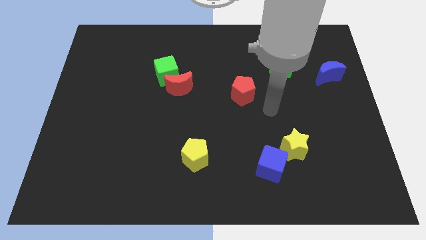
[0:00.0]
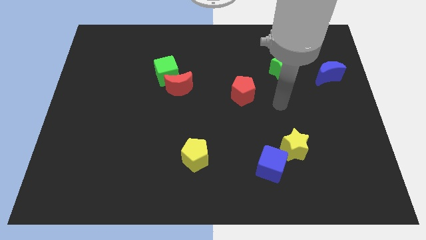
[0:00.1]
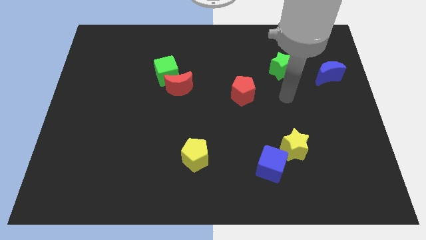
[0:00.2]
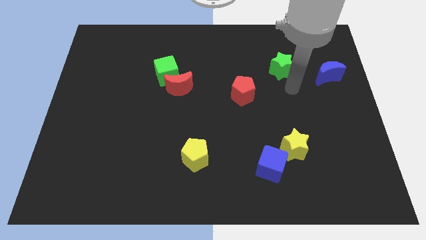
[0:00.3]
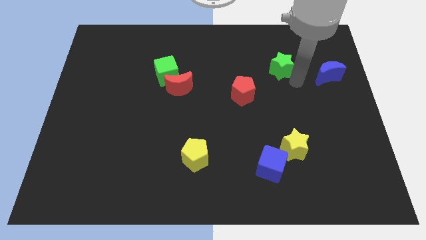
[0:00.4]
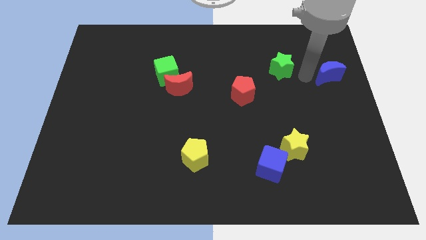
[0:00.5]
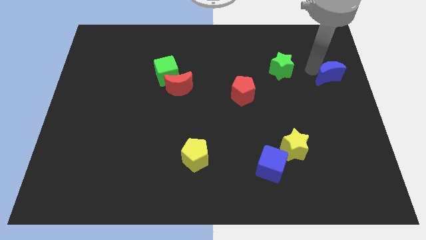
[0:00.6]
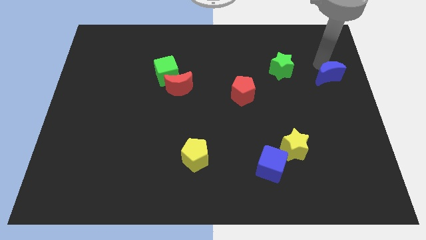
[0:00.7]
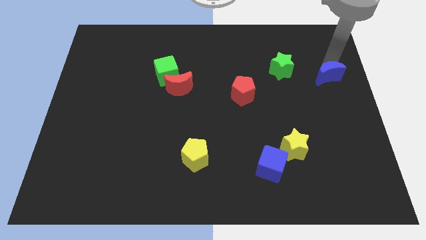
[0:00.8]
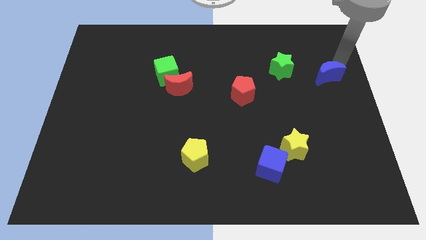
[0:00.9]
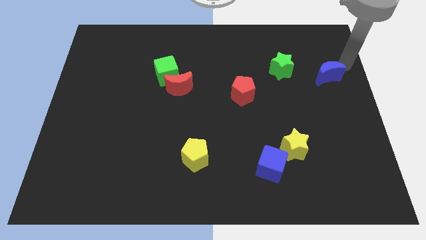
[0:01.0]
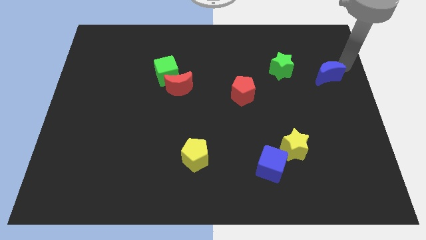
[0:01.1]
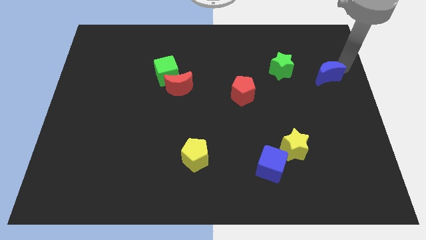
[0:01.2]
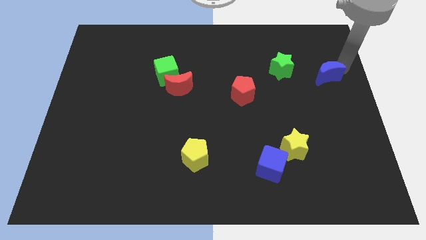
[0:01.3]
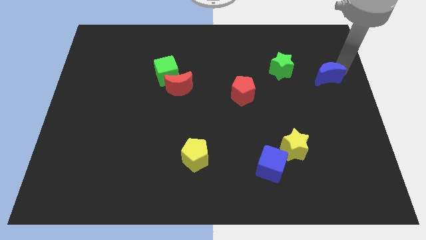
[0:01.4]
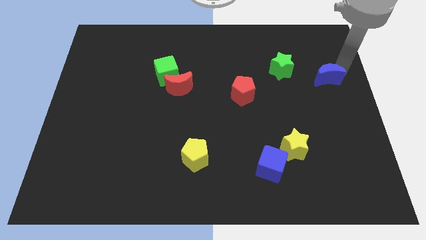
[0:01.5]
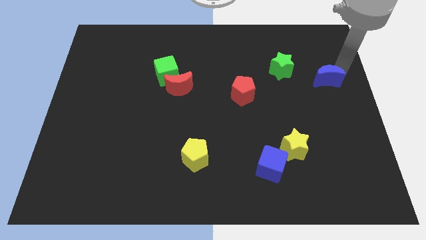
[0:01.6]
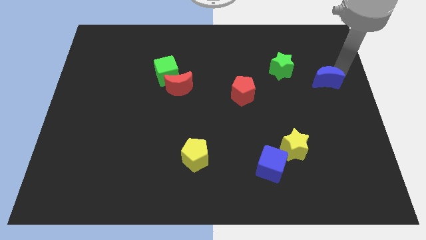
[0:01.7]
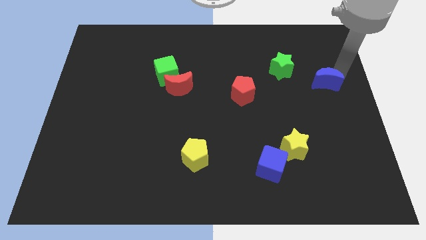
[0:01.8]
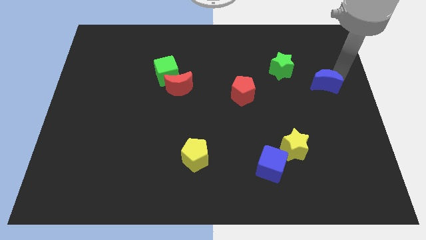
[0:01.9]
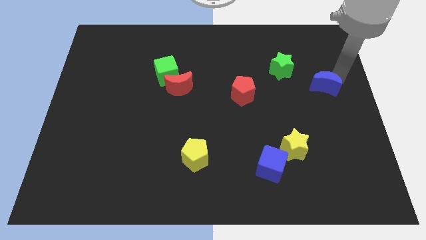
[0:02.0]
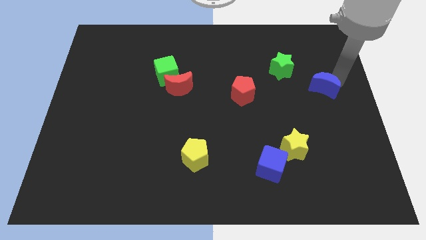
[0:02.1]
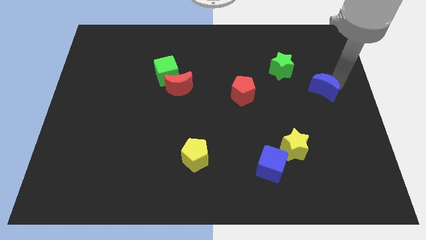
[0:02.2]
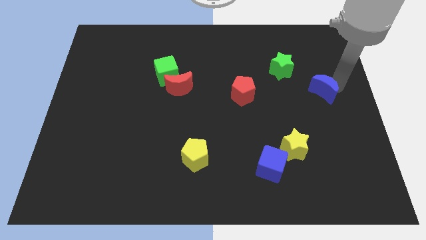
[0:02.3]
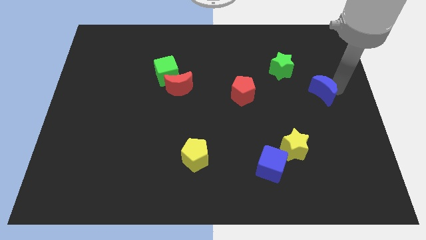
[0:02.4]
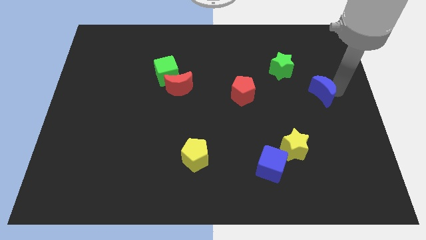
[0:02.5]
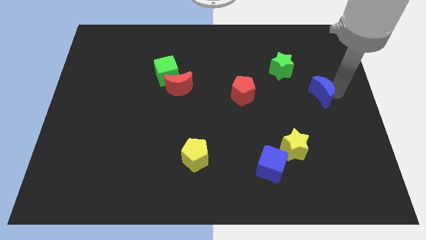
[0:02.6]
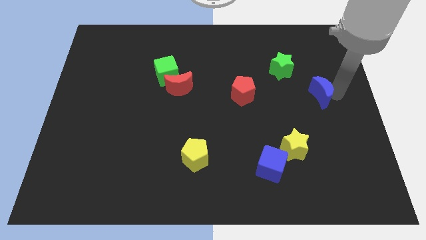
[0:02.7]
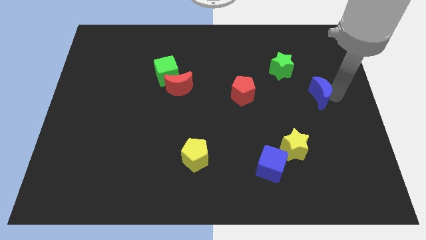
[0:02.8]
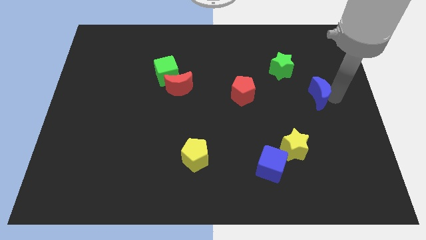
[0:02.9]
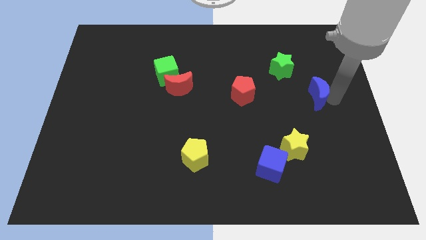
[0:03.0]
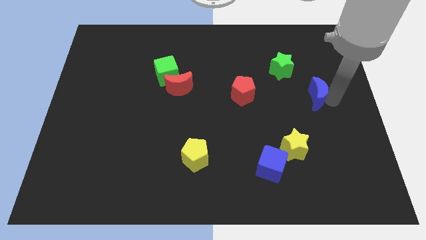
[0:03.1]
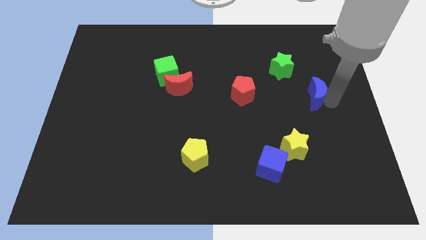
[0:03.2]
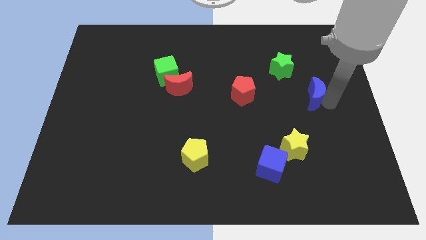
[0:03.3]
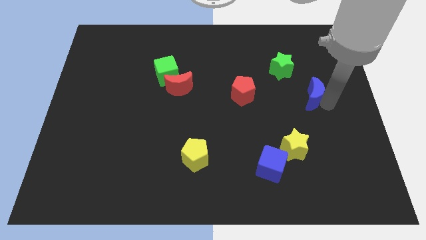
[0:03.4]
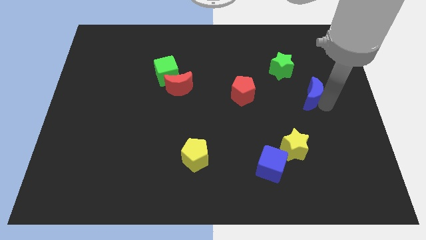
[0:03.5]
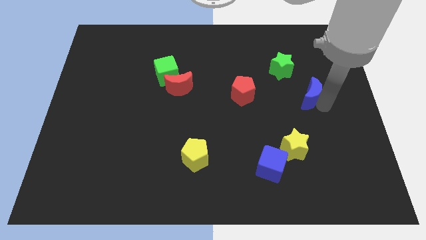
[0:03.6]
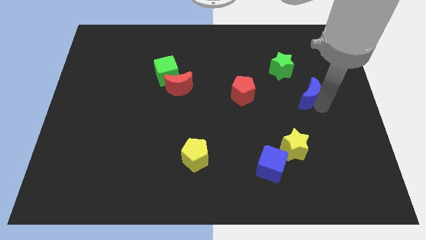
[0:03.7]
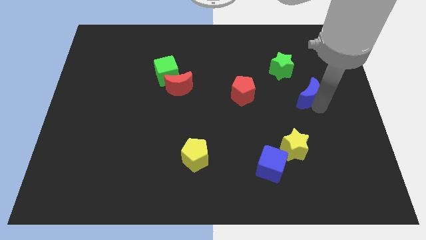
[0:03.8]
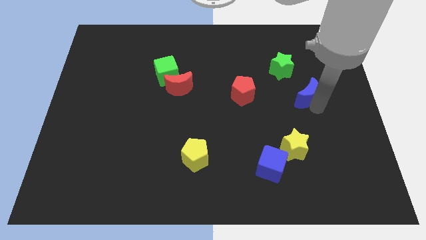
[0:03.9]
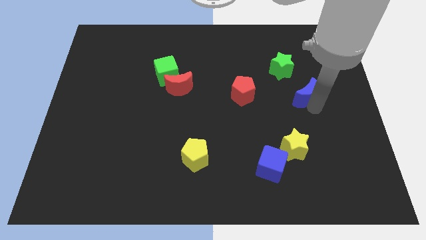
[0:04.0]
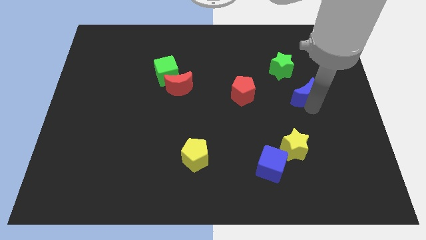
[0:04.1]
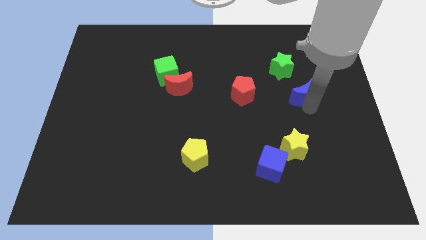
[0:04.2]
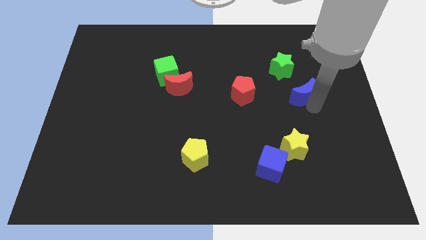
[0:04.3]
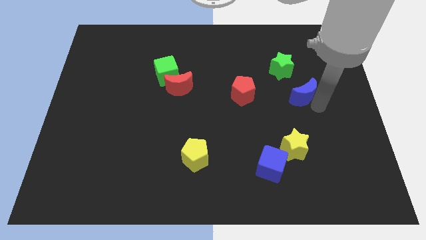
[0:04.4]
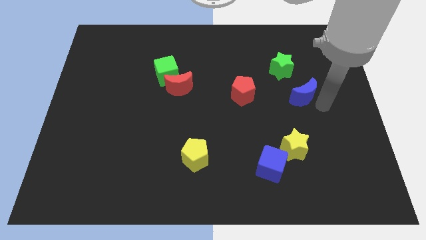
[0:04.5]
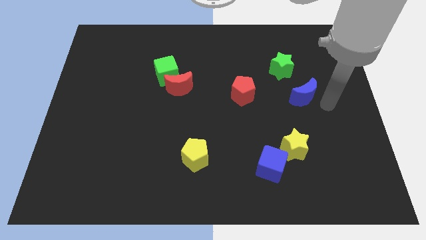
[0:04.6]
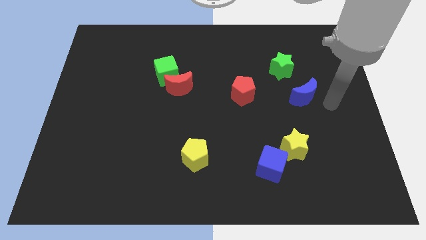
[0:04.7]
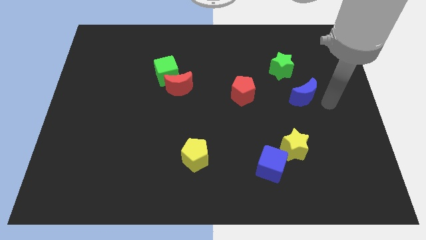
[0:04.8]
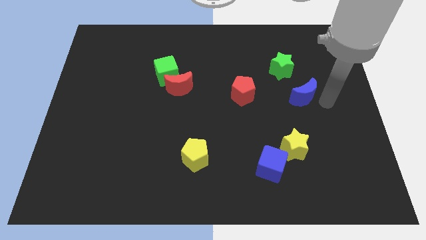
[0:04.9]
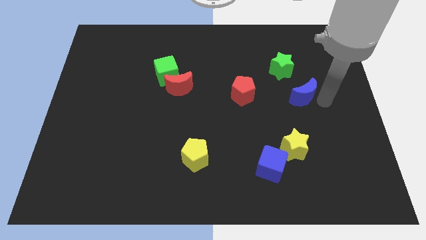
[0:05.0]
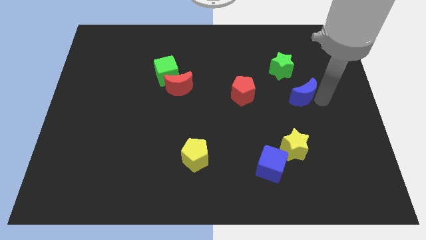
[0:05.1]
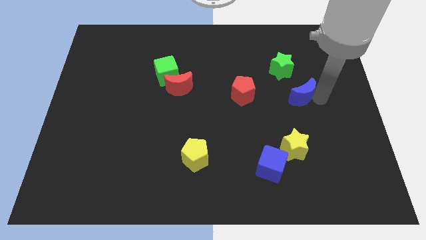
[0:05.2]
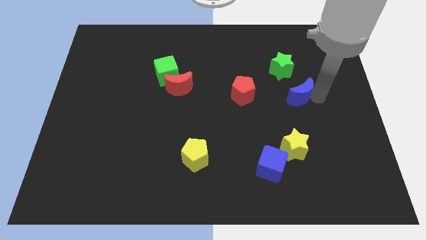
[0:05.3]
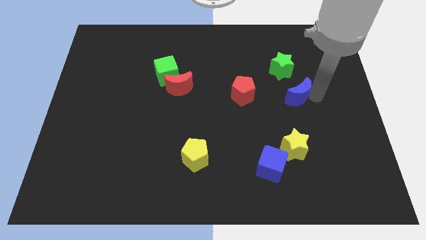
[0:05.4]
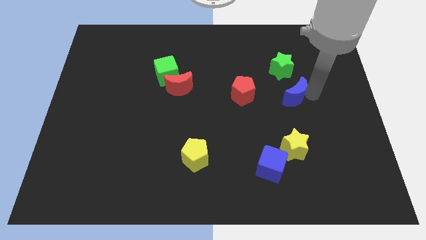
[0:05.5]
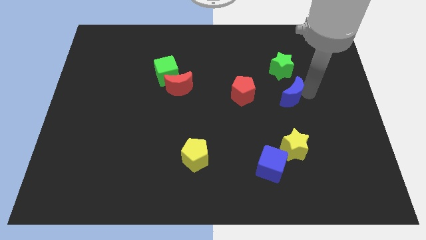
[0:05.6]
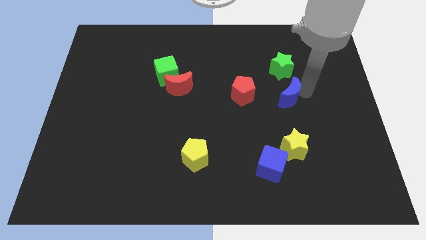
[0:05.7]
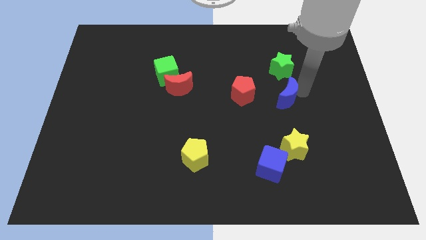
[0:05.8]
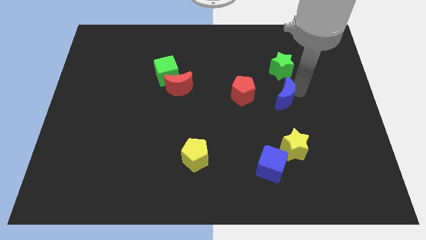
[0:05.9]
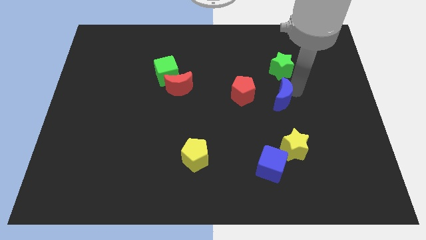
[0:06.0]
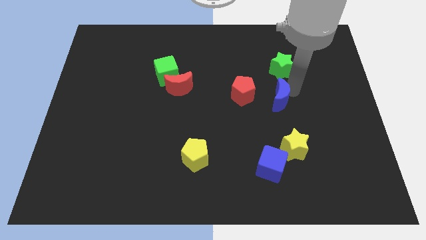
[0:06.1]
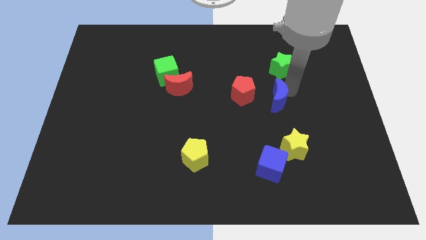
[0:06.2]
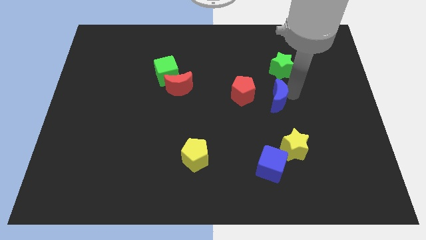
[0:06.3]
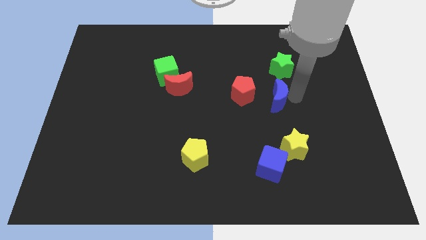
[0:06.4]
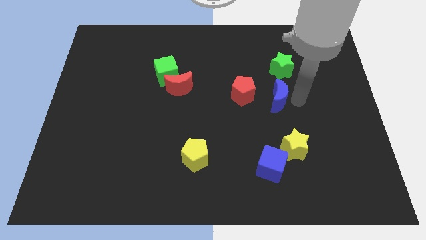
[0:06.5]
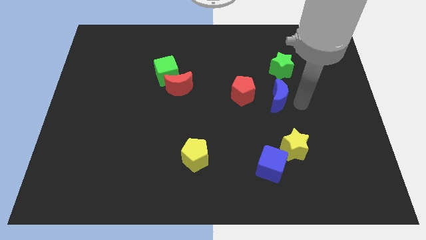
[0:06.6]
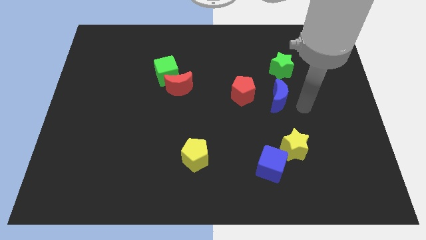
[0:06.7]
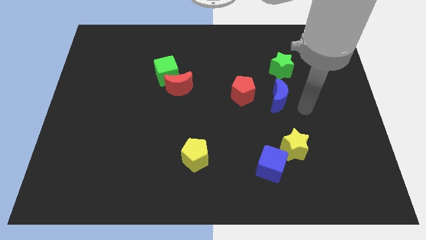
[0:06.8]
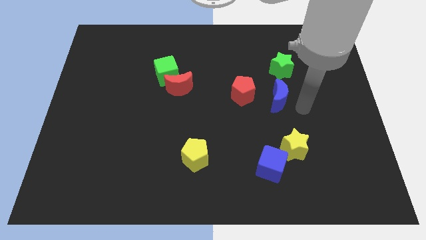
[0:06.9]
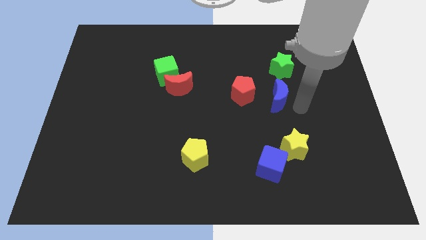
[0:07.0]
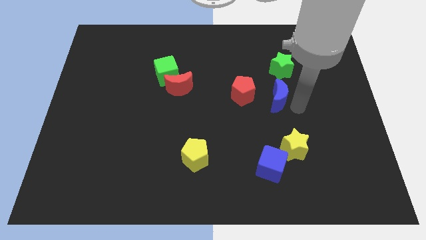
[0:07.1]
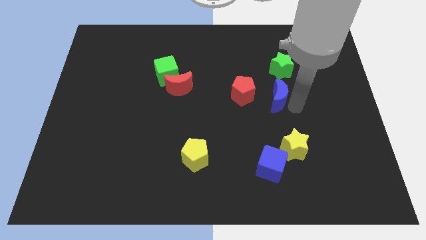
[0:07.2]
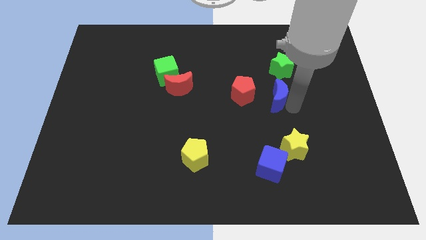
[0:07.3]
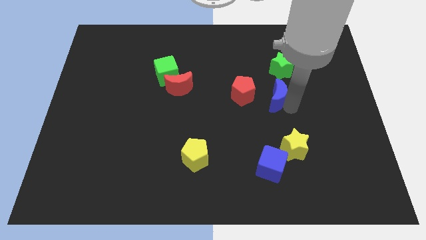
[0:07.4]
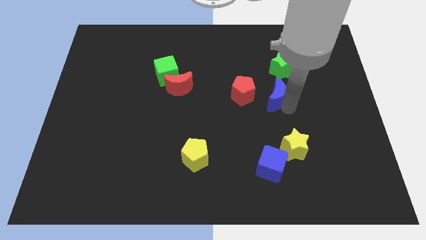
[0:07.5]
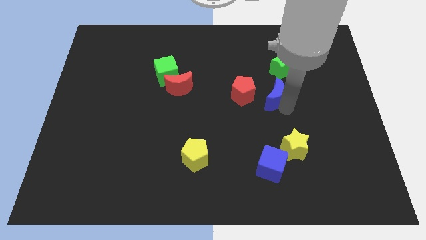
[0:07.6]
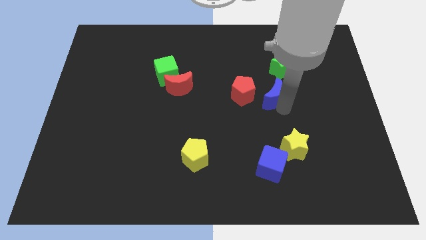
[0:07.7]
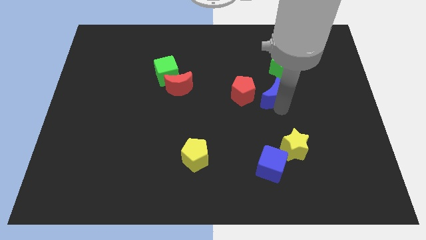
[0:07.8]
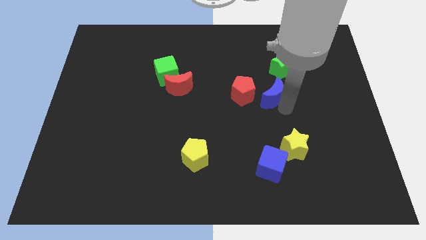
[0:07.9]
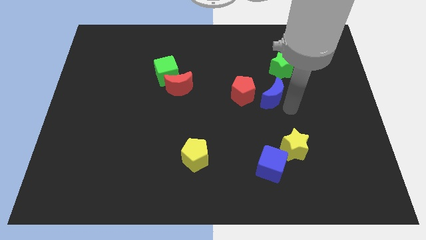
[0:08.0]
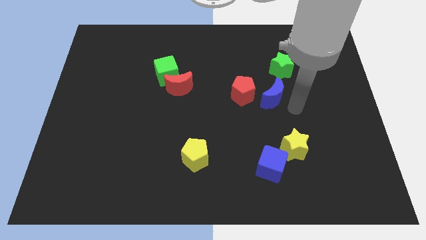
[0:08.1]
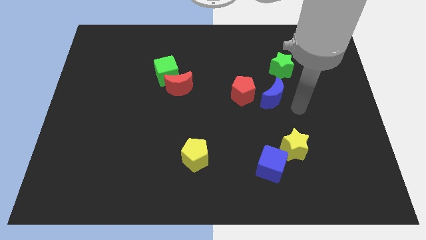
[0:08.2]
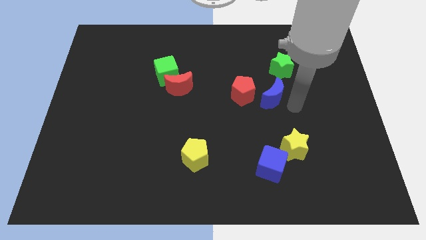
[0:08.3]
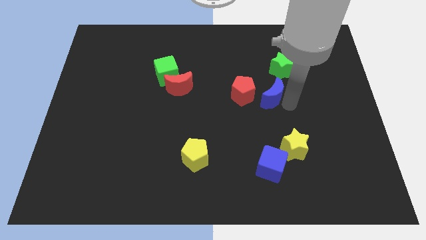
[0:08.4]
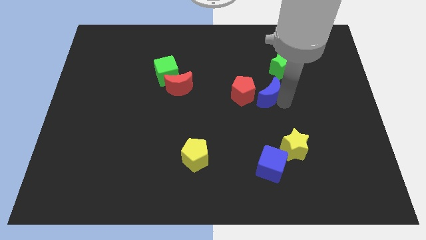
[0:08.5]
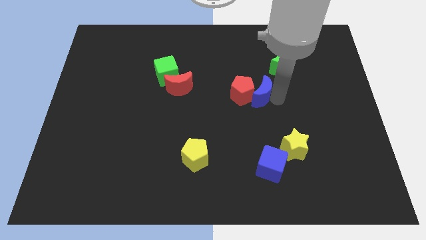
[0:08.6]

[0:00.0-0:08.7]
push the blue moon close to the red pentagon
